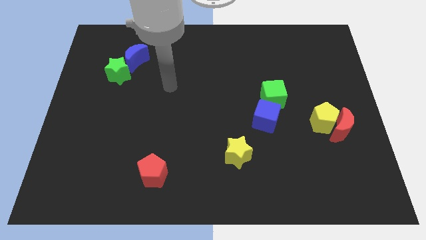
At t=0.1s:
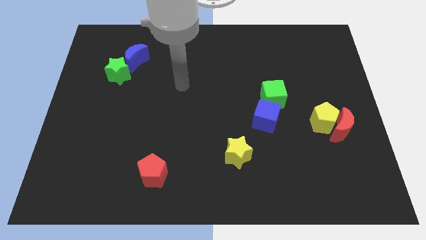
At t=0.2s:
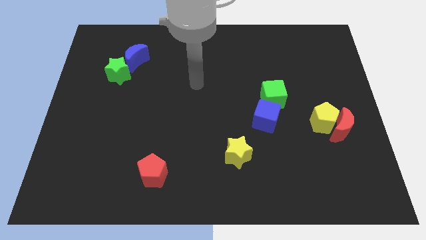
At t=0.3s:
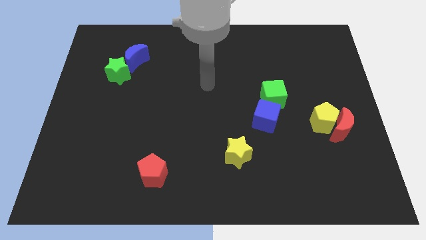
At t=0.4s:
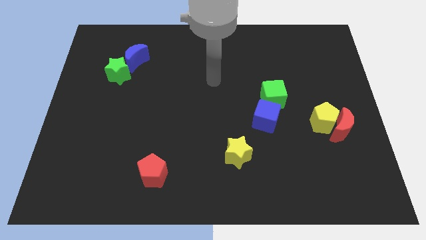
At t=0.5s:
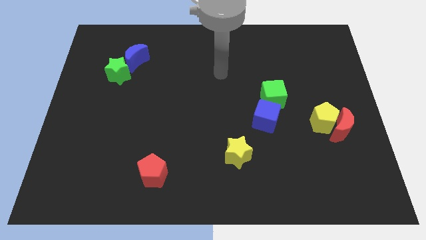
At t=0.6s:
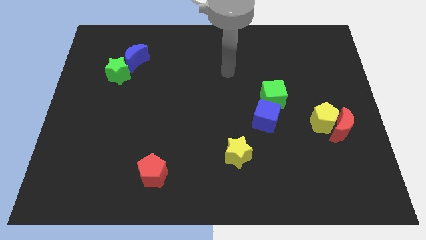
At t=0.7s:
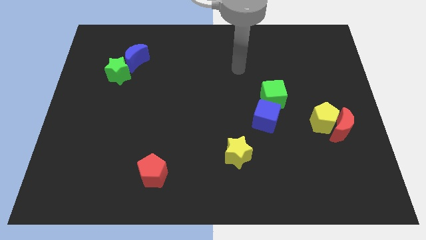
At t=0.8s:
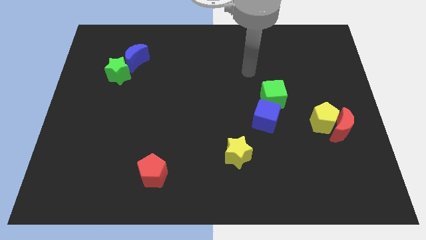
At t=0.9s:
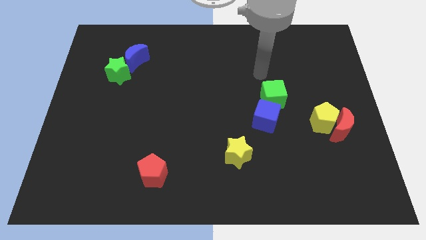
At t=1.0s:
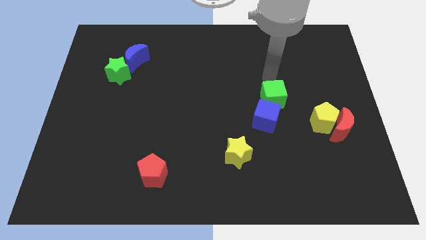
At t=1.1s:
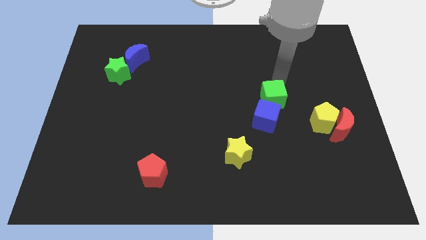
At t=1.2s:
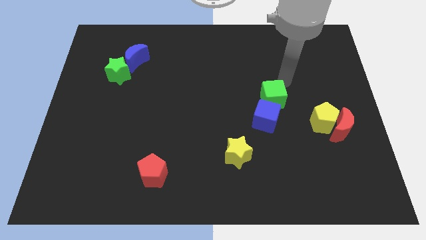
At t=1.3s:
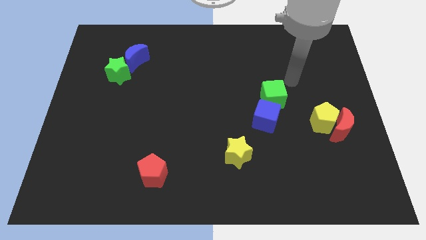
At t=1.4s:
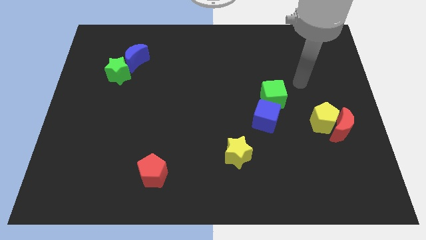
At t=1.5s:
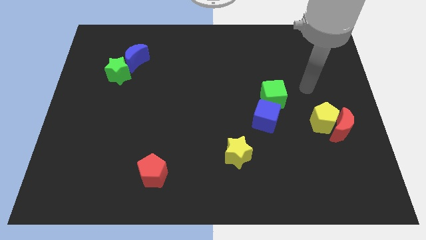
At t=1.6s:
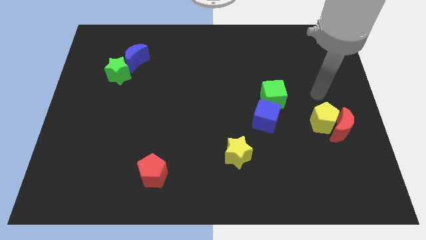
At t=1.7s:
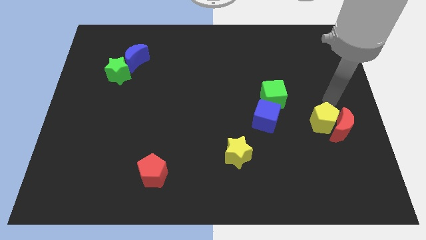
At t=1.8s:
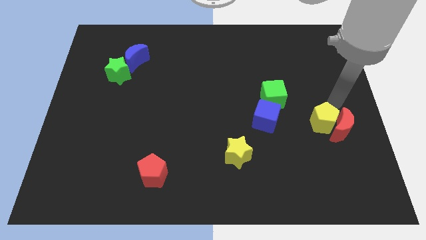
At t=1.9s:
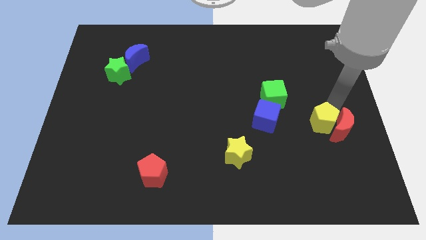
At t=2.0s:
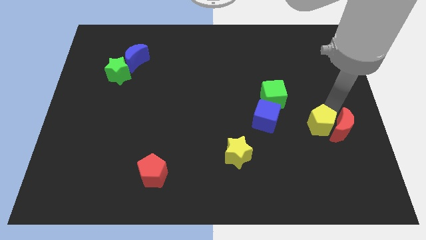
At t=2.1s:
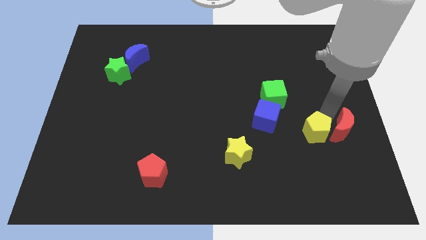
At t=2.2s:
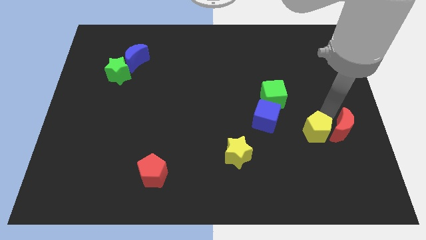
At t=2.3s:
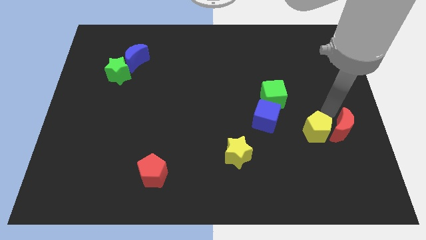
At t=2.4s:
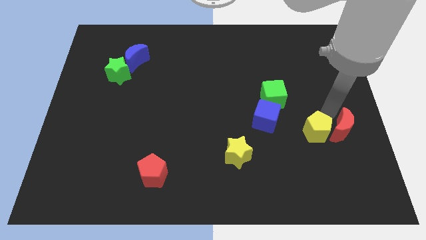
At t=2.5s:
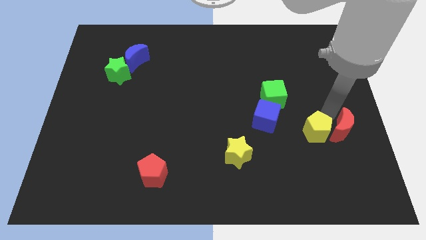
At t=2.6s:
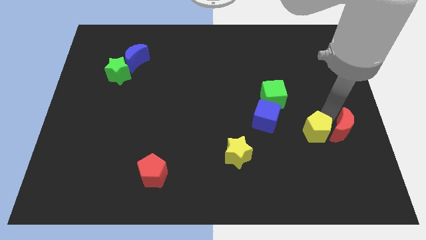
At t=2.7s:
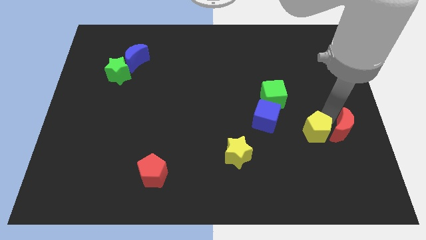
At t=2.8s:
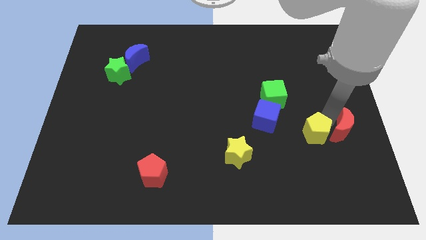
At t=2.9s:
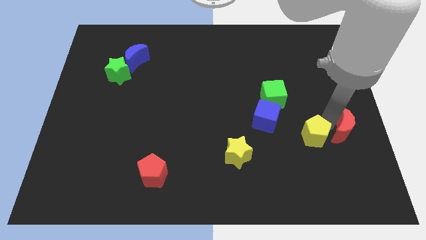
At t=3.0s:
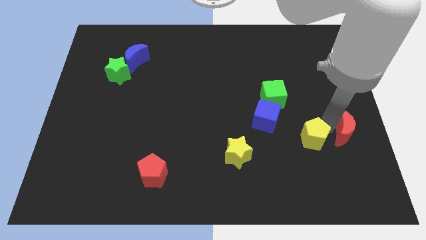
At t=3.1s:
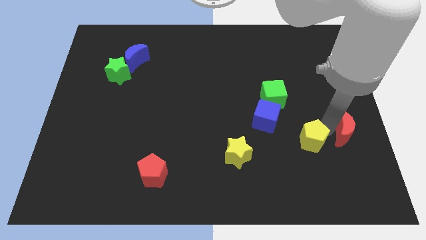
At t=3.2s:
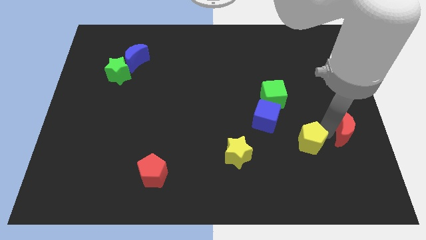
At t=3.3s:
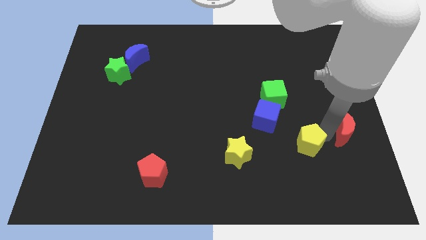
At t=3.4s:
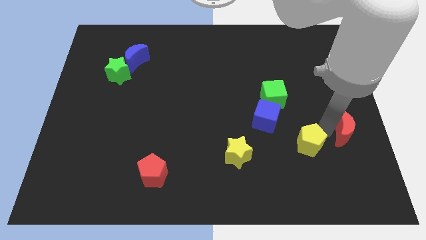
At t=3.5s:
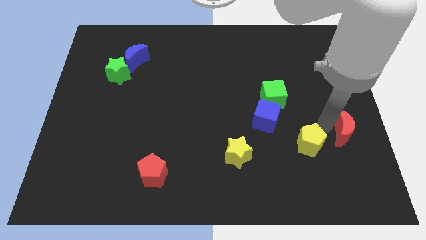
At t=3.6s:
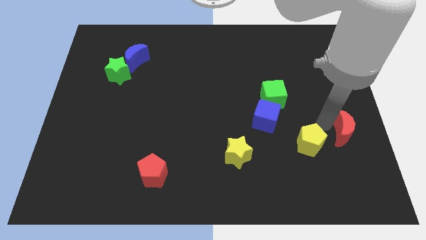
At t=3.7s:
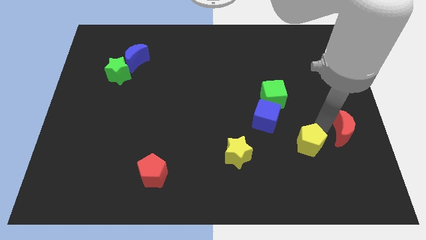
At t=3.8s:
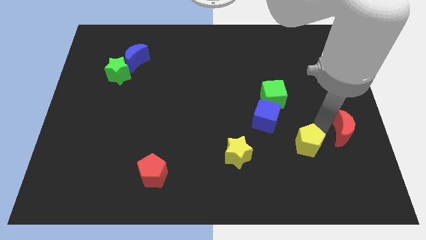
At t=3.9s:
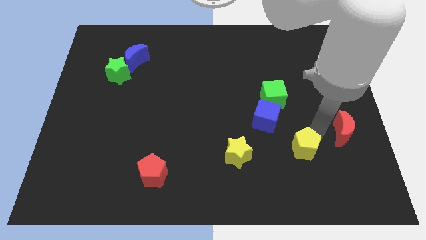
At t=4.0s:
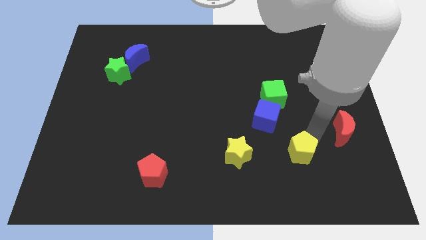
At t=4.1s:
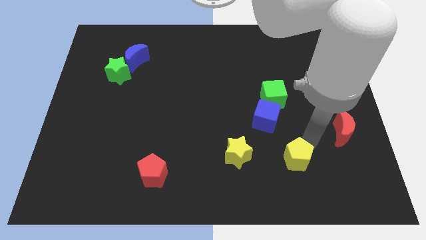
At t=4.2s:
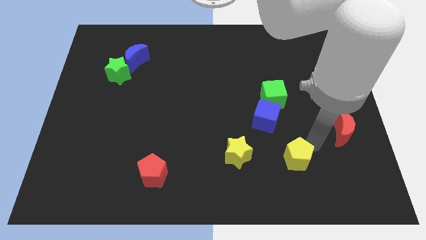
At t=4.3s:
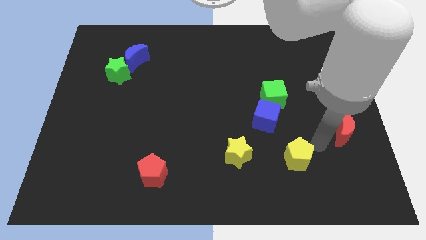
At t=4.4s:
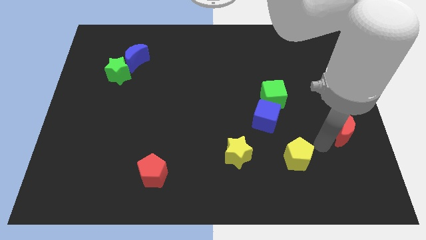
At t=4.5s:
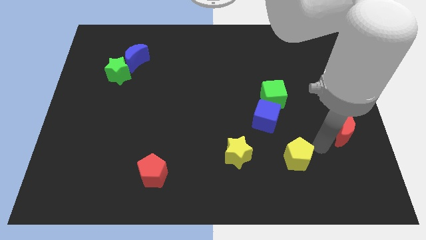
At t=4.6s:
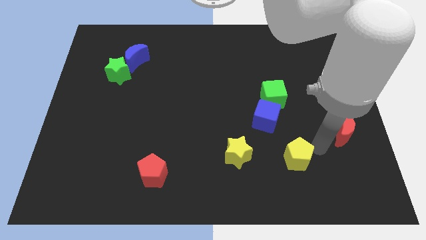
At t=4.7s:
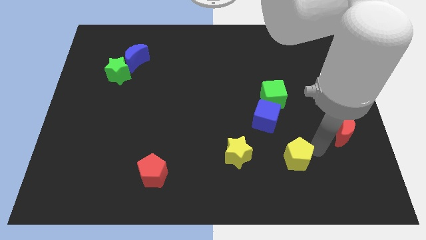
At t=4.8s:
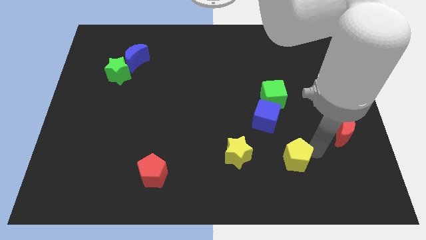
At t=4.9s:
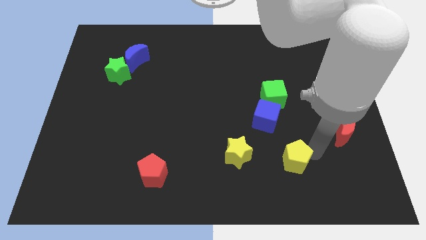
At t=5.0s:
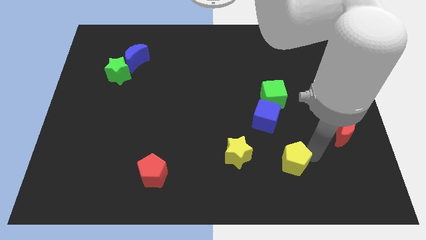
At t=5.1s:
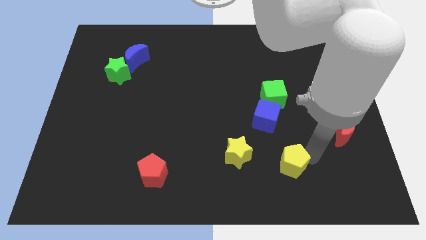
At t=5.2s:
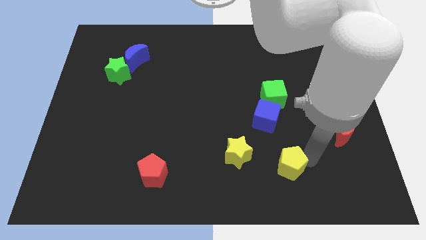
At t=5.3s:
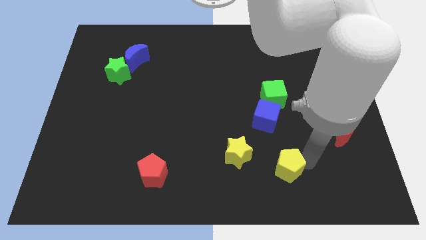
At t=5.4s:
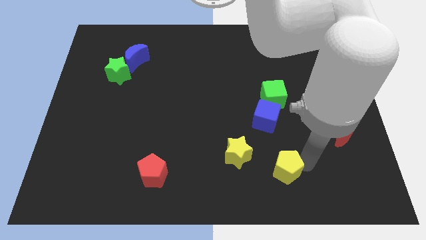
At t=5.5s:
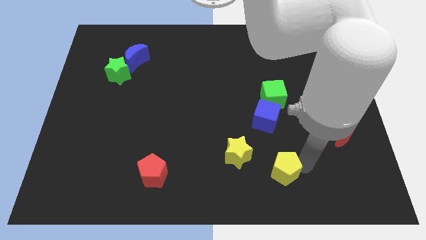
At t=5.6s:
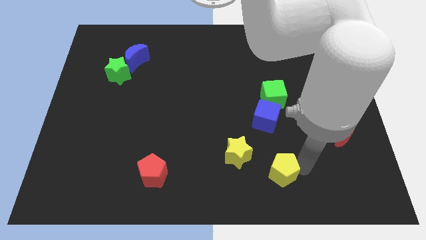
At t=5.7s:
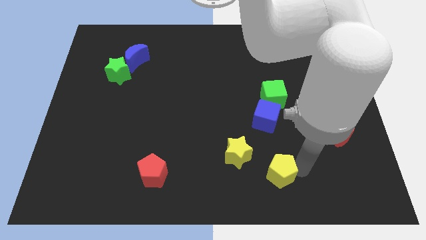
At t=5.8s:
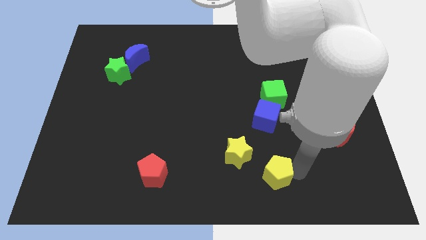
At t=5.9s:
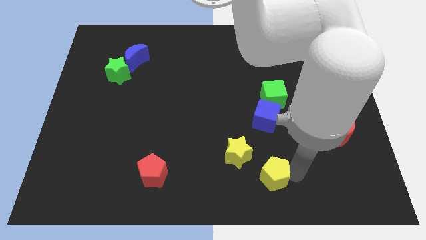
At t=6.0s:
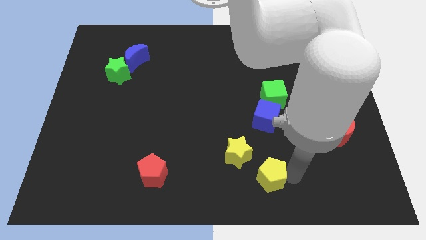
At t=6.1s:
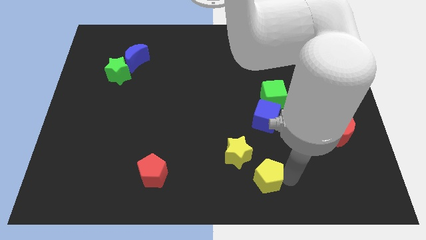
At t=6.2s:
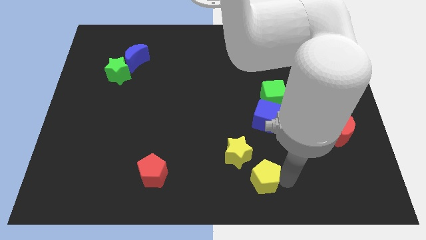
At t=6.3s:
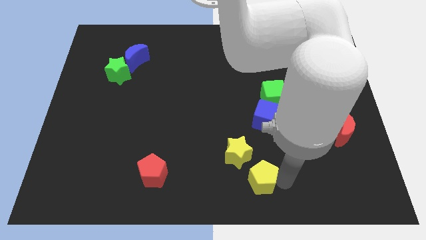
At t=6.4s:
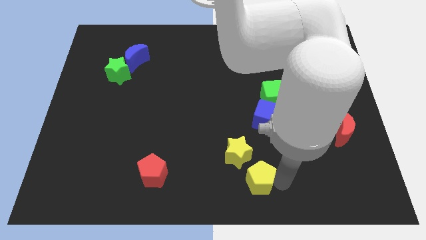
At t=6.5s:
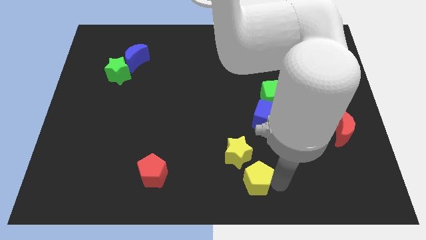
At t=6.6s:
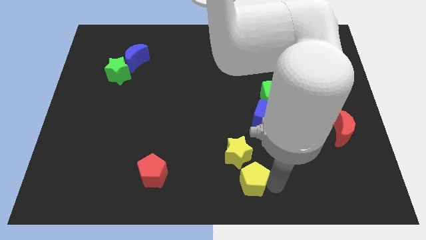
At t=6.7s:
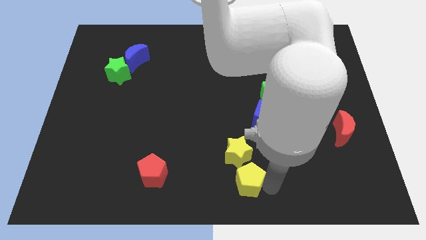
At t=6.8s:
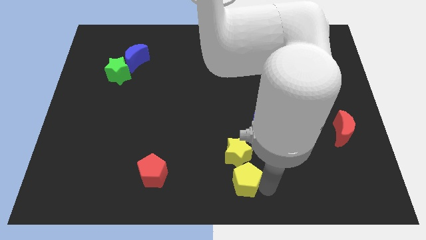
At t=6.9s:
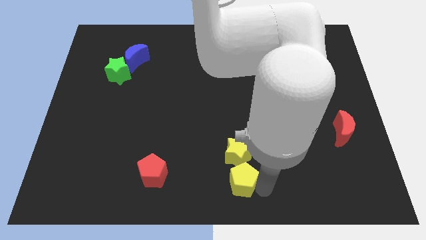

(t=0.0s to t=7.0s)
put the yellow pentagon to the bottom left side of the yellow star

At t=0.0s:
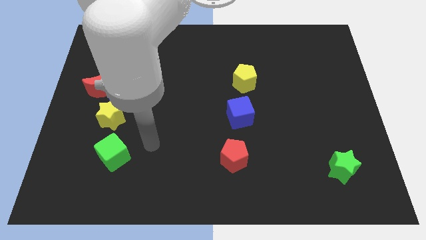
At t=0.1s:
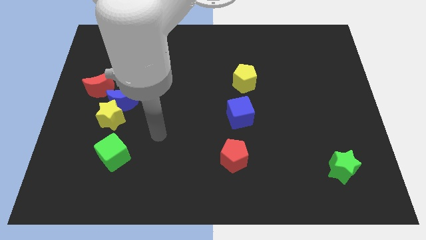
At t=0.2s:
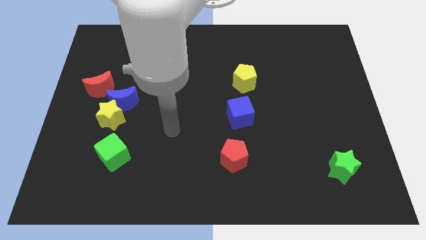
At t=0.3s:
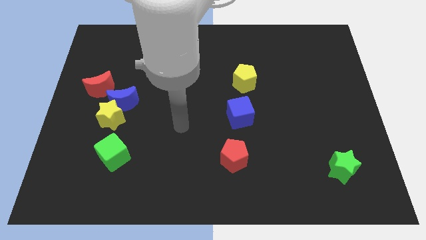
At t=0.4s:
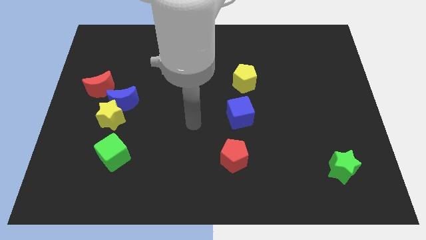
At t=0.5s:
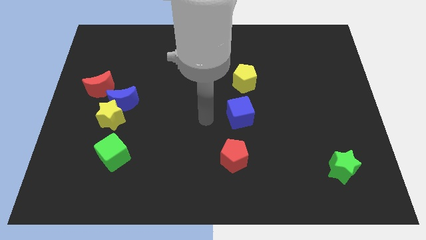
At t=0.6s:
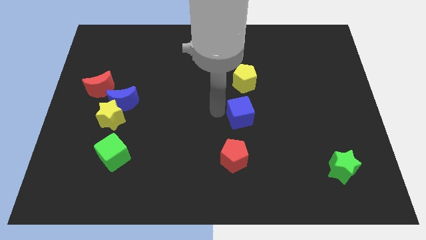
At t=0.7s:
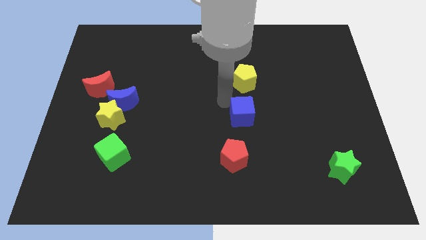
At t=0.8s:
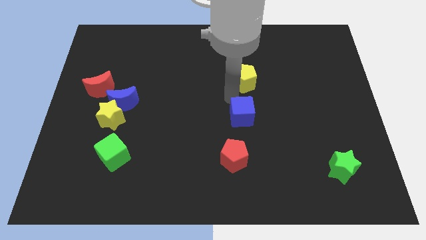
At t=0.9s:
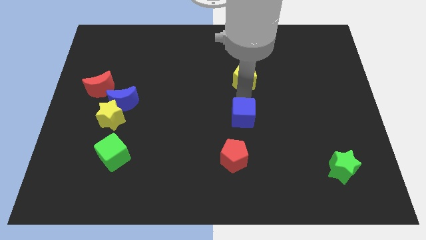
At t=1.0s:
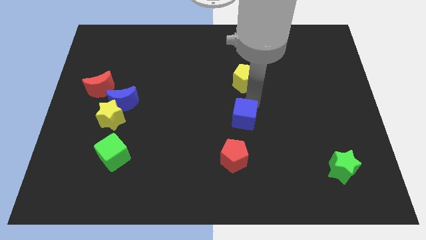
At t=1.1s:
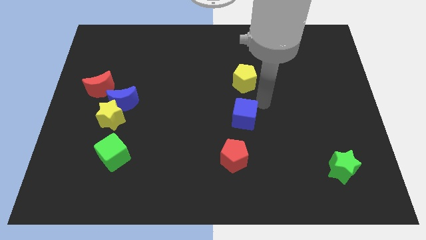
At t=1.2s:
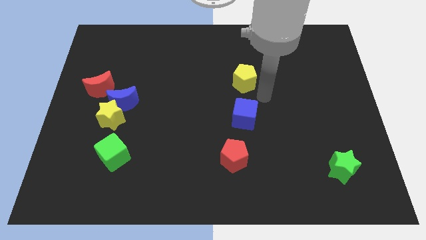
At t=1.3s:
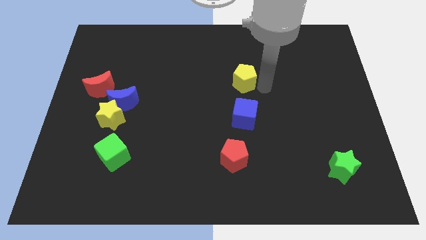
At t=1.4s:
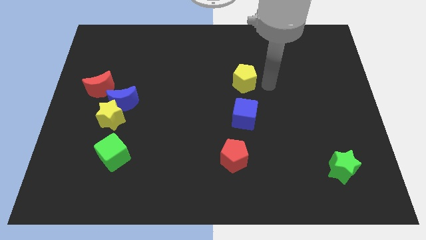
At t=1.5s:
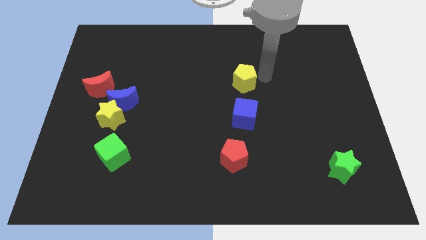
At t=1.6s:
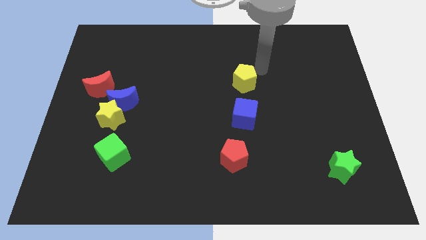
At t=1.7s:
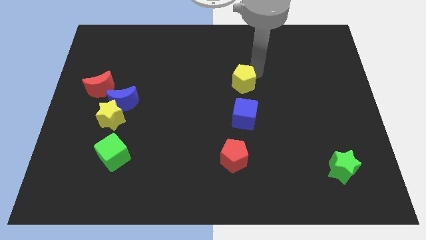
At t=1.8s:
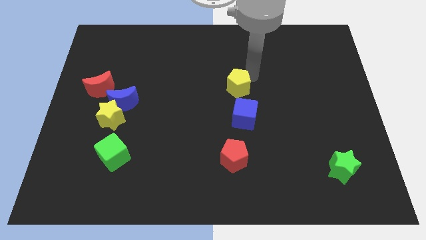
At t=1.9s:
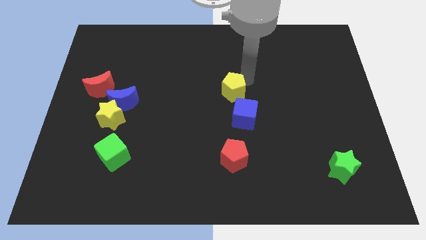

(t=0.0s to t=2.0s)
put the yellow pentagon to the top left side of the blue cube
